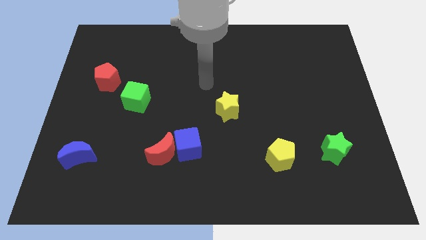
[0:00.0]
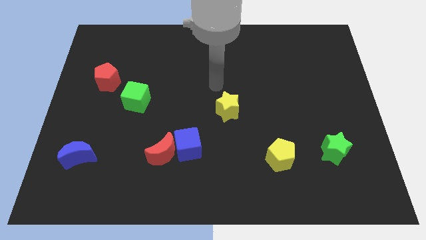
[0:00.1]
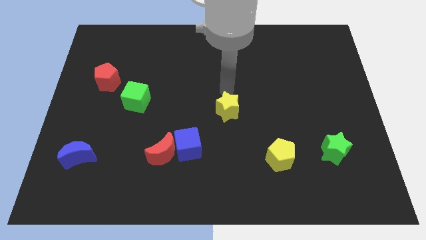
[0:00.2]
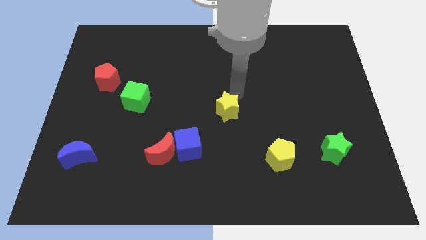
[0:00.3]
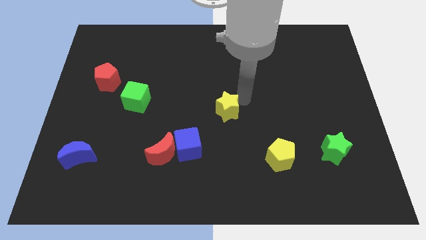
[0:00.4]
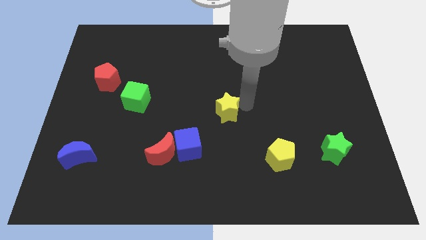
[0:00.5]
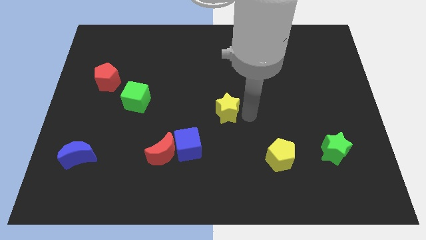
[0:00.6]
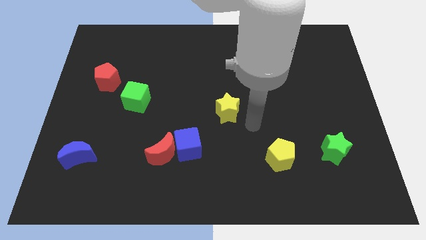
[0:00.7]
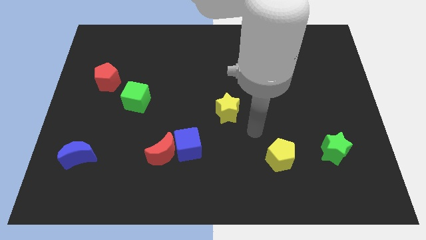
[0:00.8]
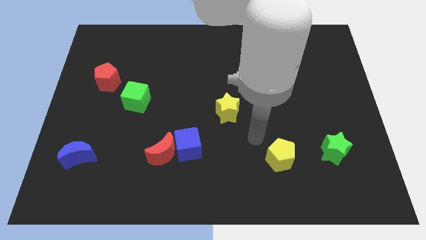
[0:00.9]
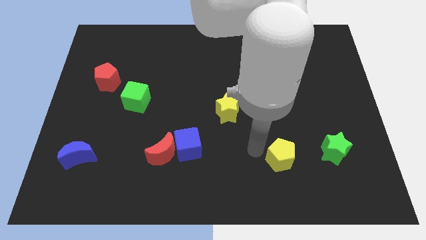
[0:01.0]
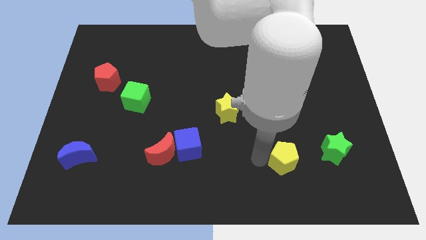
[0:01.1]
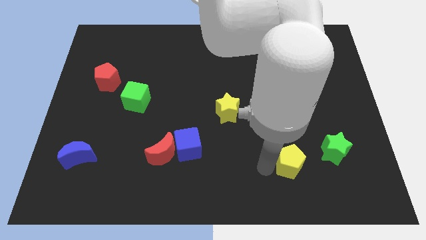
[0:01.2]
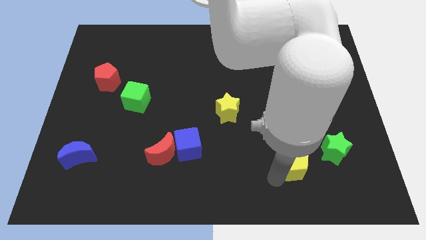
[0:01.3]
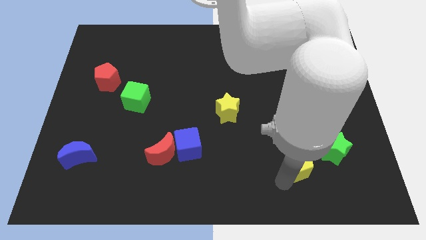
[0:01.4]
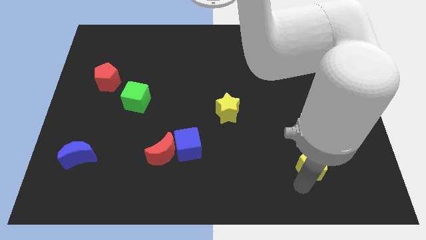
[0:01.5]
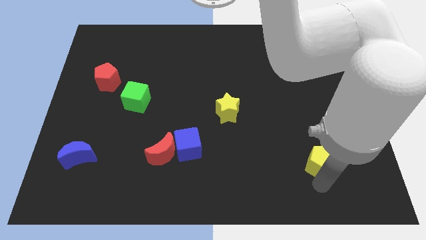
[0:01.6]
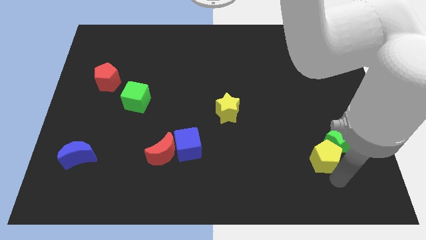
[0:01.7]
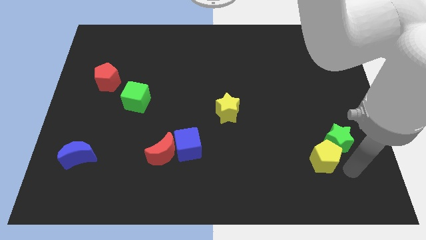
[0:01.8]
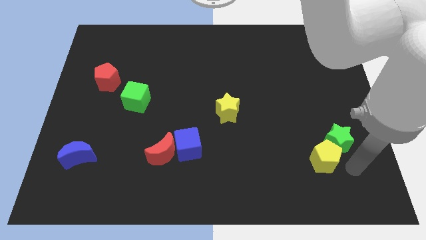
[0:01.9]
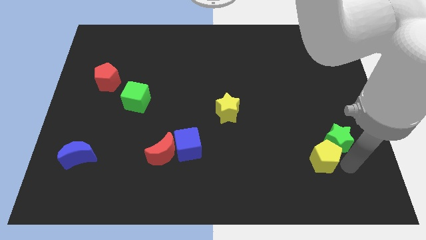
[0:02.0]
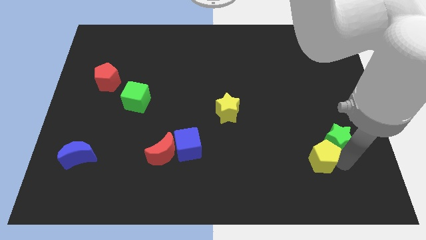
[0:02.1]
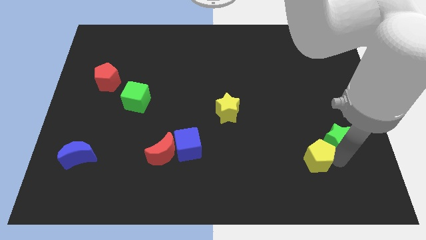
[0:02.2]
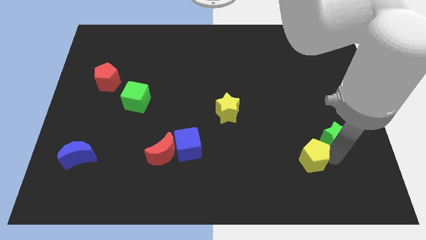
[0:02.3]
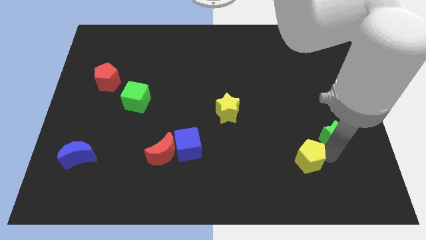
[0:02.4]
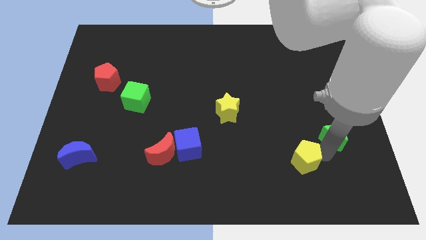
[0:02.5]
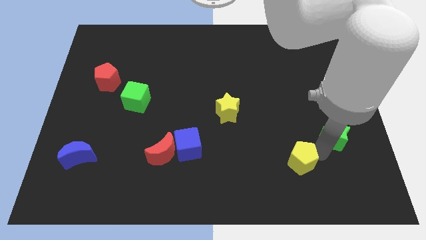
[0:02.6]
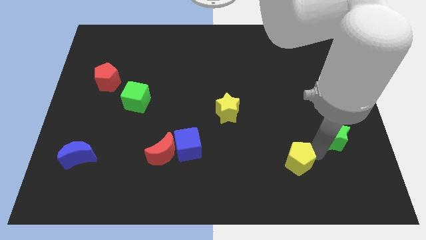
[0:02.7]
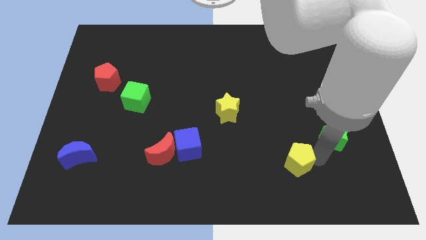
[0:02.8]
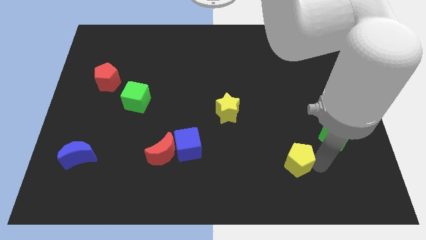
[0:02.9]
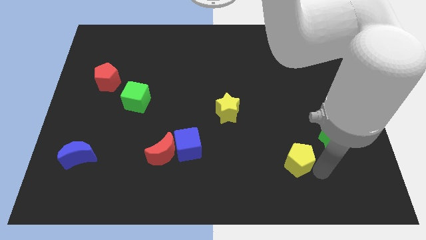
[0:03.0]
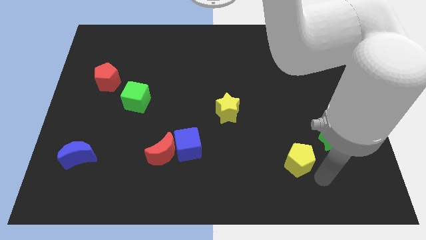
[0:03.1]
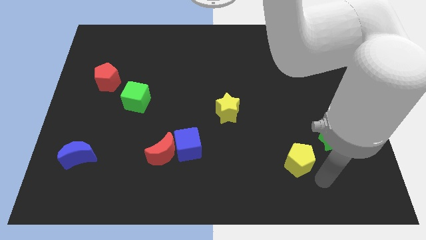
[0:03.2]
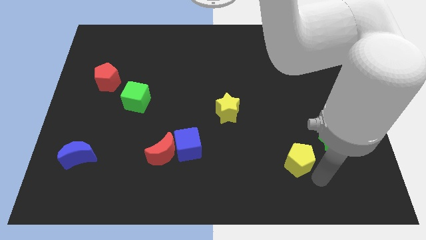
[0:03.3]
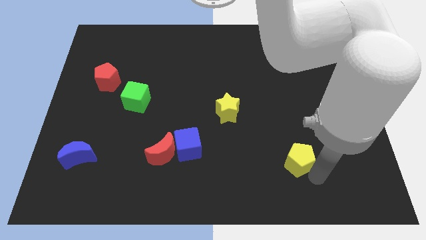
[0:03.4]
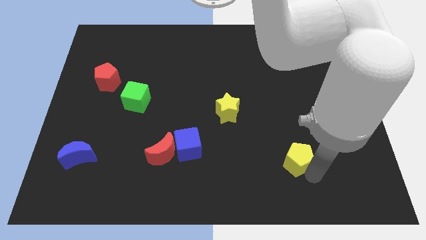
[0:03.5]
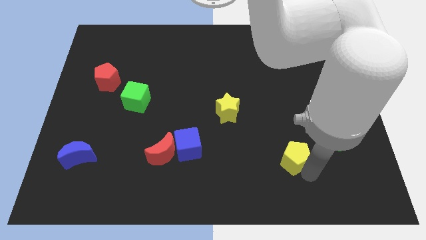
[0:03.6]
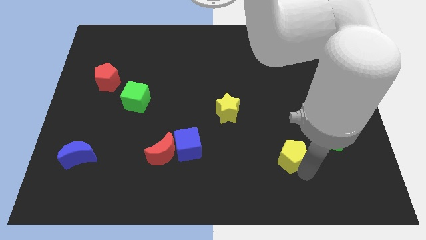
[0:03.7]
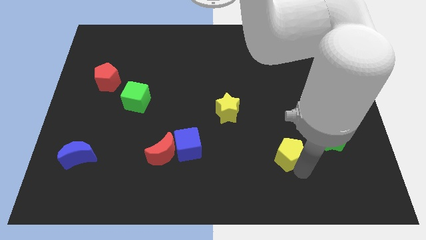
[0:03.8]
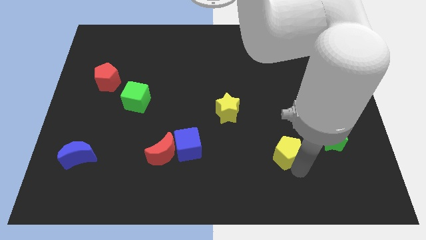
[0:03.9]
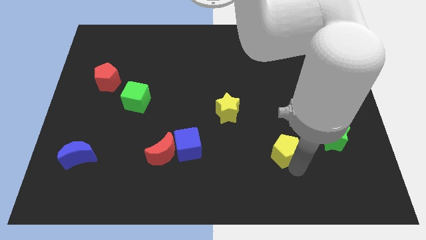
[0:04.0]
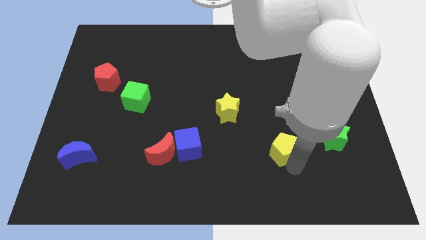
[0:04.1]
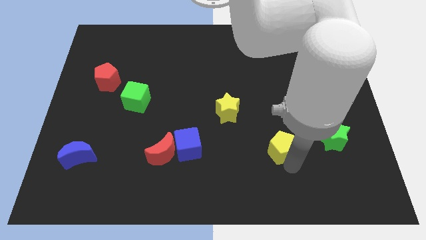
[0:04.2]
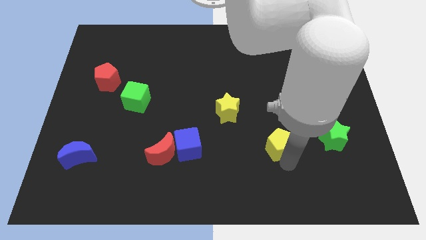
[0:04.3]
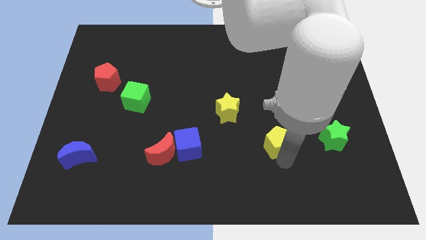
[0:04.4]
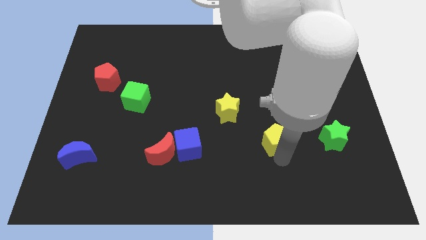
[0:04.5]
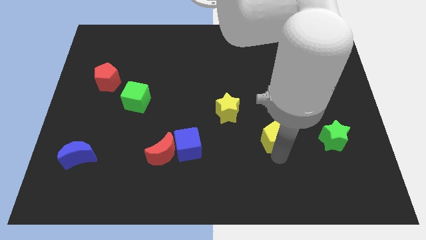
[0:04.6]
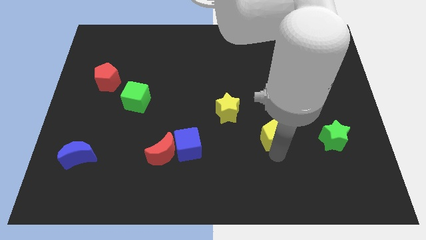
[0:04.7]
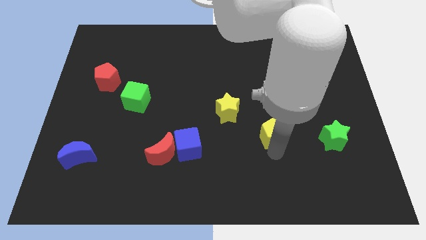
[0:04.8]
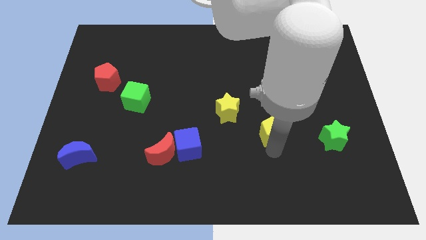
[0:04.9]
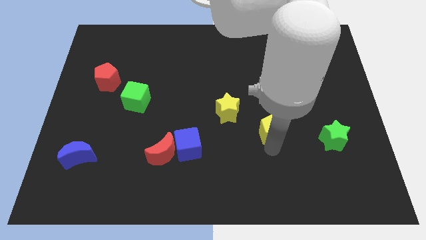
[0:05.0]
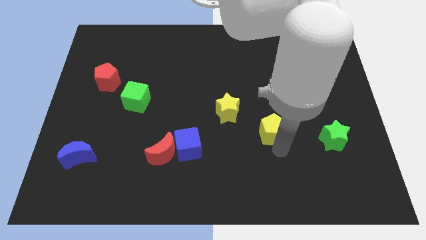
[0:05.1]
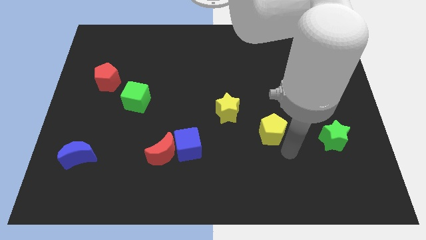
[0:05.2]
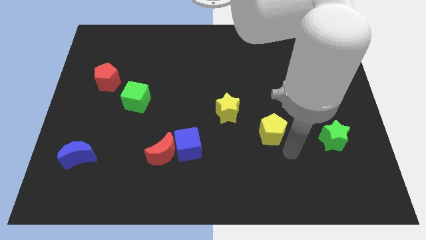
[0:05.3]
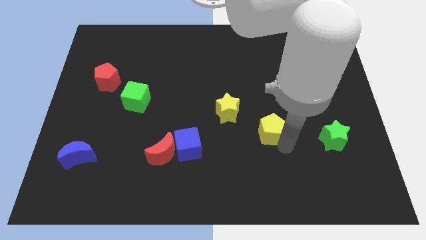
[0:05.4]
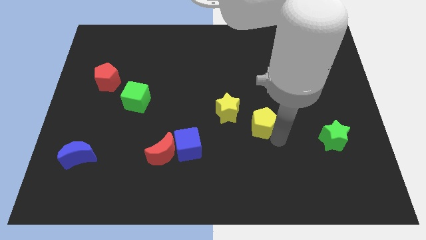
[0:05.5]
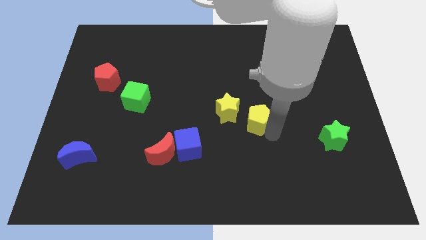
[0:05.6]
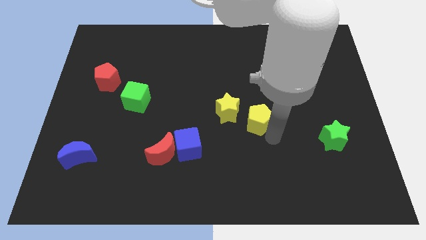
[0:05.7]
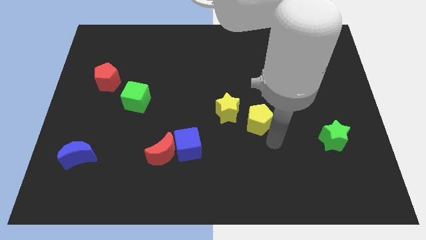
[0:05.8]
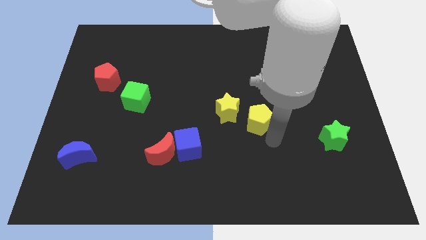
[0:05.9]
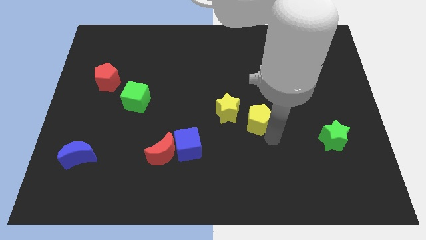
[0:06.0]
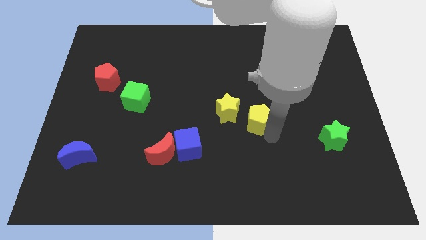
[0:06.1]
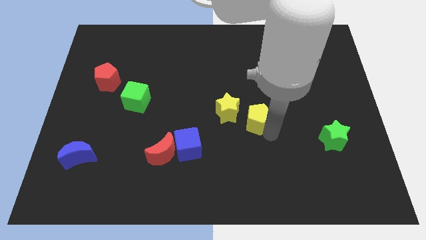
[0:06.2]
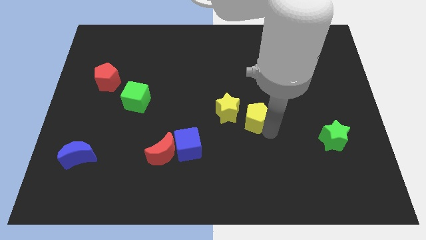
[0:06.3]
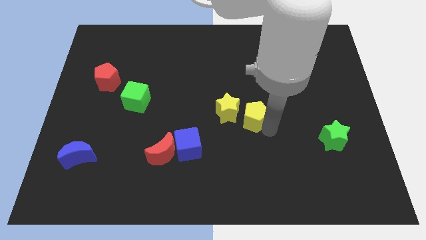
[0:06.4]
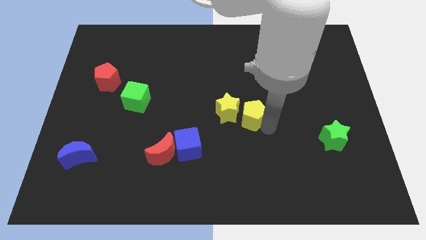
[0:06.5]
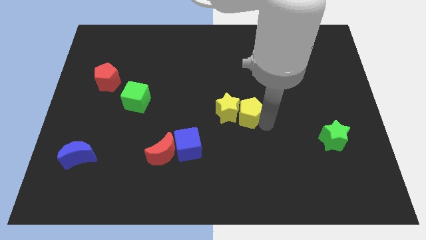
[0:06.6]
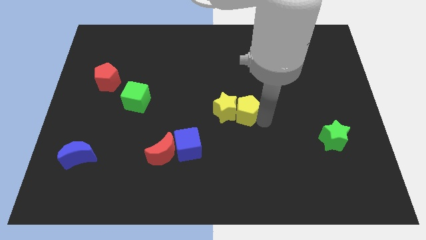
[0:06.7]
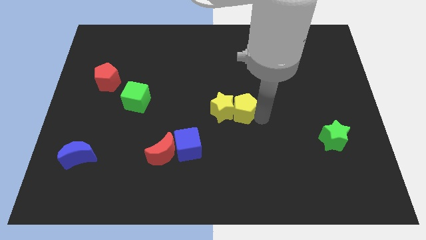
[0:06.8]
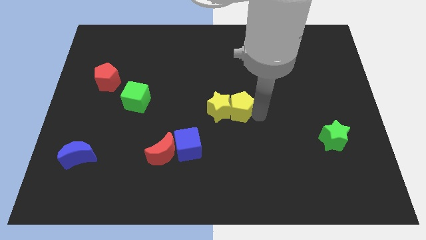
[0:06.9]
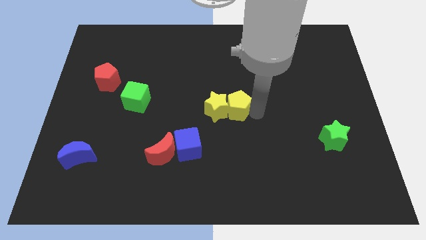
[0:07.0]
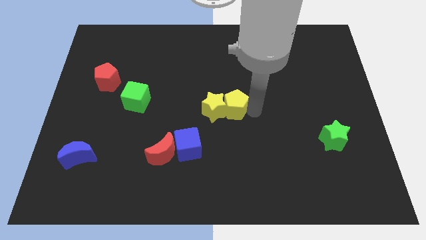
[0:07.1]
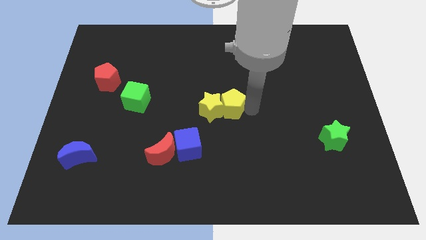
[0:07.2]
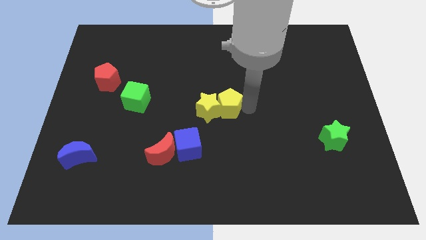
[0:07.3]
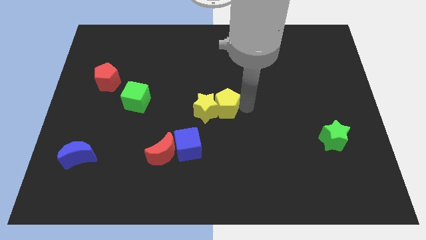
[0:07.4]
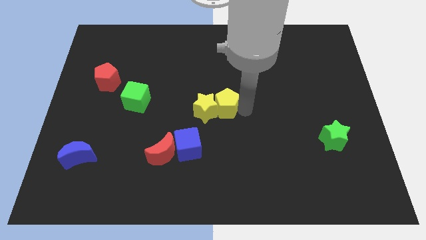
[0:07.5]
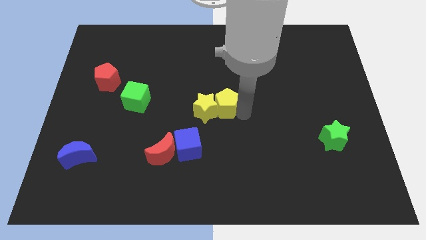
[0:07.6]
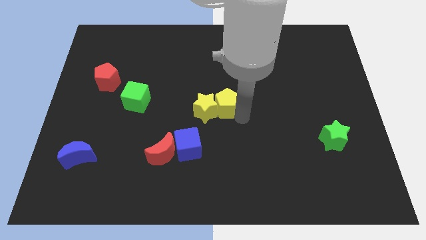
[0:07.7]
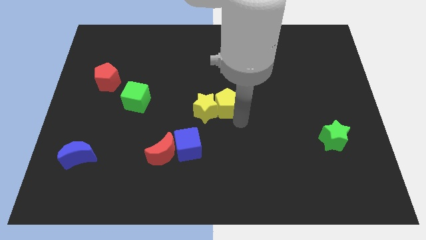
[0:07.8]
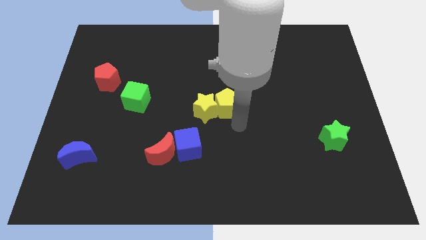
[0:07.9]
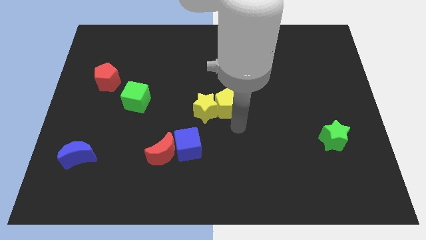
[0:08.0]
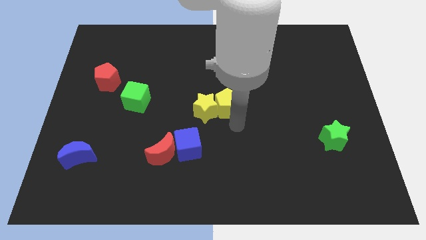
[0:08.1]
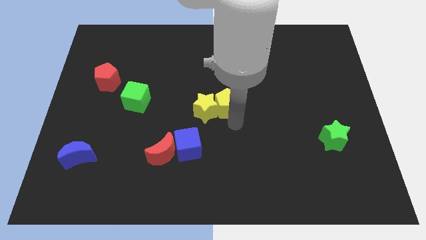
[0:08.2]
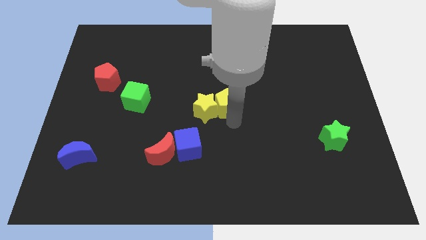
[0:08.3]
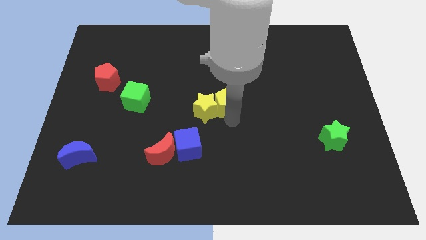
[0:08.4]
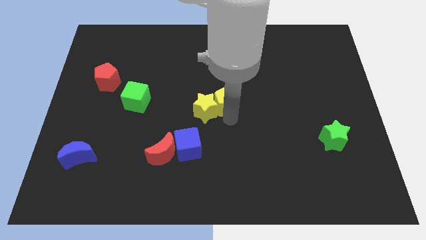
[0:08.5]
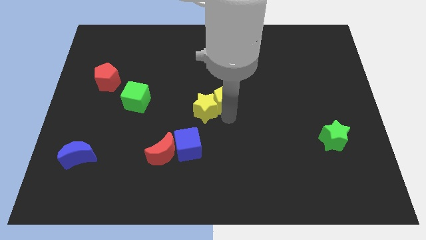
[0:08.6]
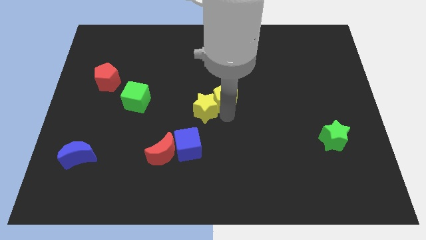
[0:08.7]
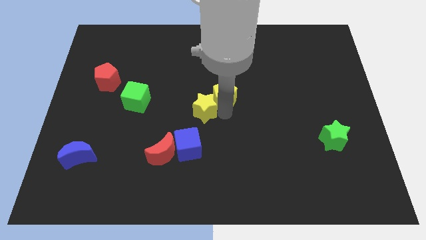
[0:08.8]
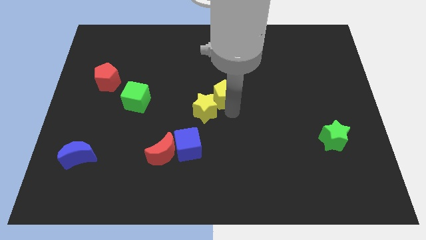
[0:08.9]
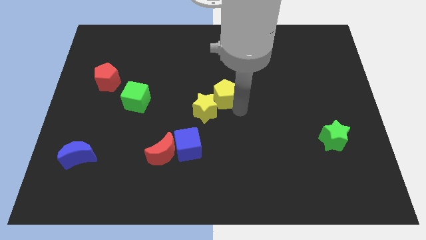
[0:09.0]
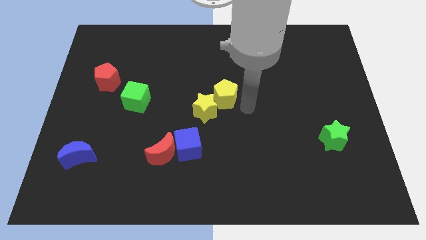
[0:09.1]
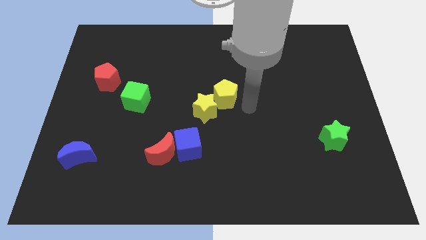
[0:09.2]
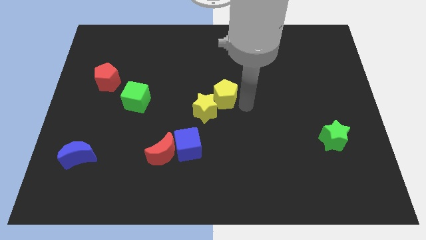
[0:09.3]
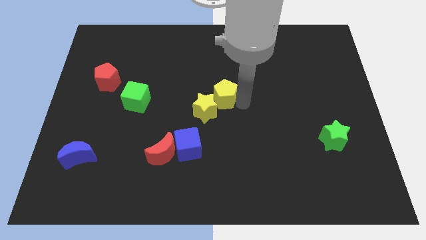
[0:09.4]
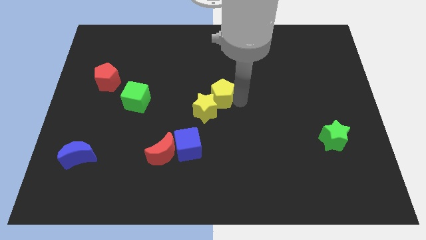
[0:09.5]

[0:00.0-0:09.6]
slide the yellow pentagon upwards and then left
